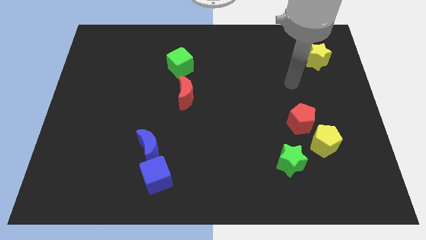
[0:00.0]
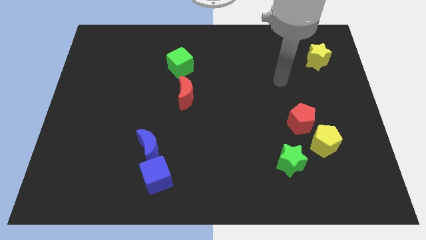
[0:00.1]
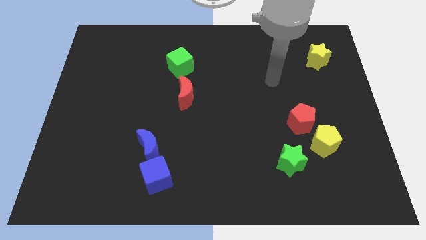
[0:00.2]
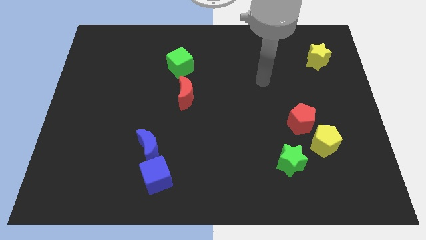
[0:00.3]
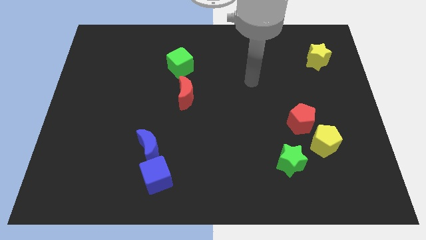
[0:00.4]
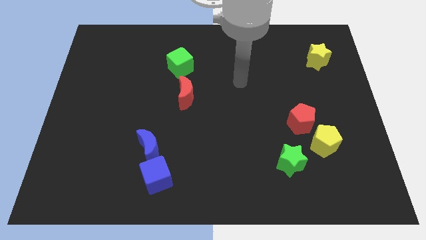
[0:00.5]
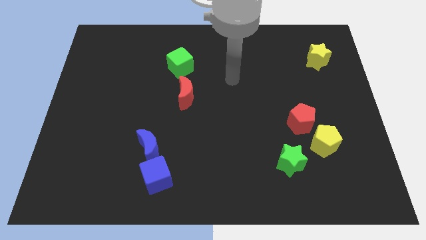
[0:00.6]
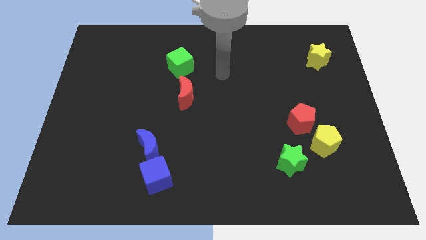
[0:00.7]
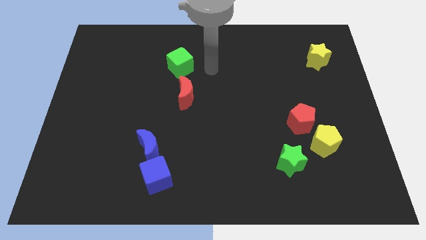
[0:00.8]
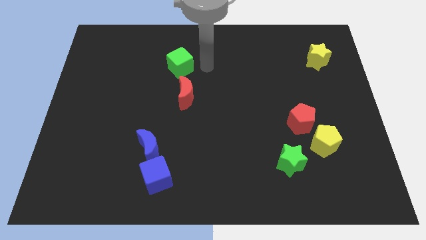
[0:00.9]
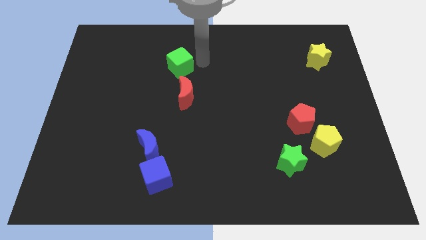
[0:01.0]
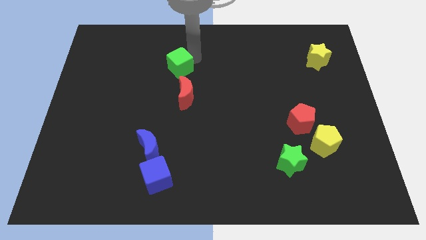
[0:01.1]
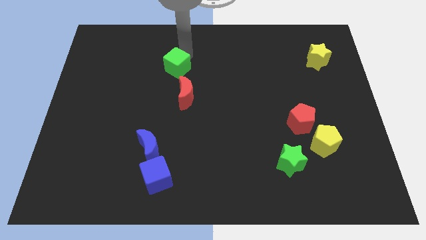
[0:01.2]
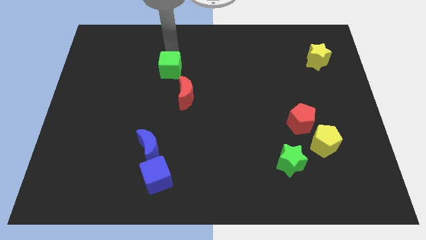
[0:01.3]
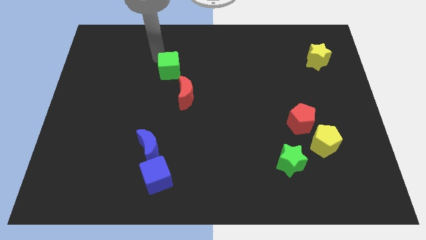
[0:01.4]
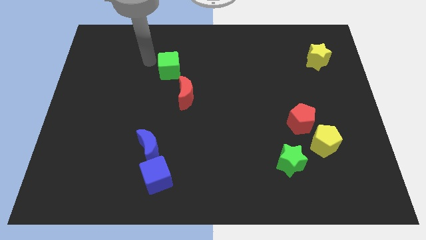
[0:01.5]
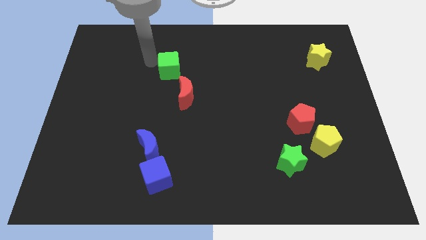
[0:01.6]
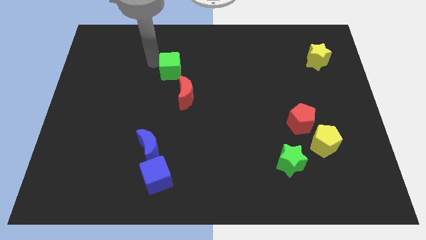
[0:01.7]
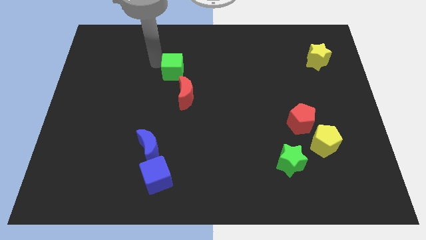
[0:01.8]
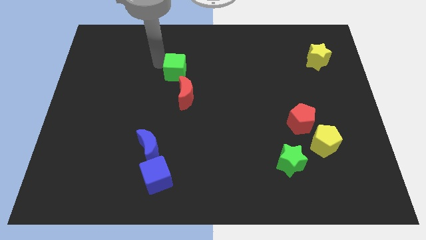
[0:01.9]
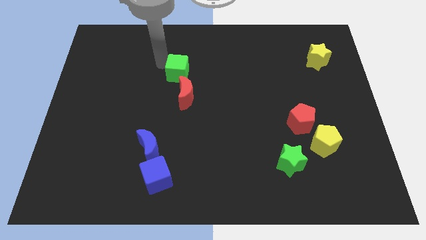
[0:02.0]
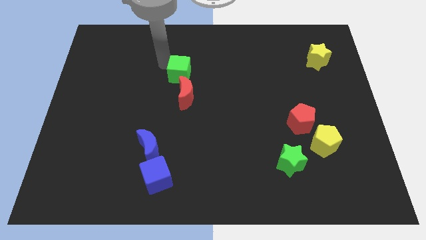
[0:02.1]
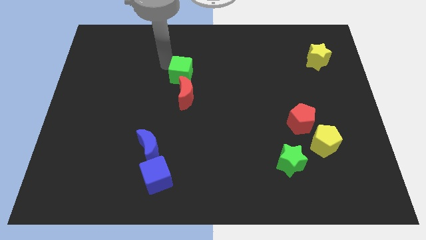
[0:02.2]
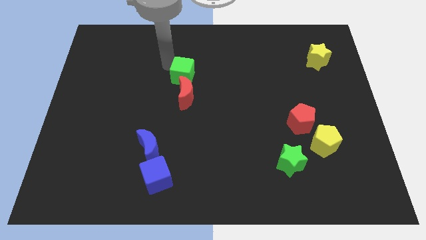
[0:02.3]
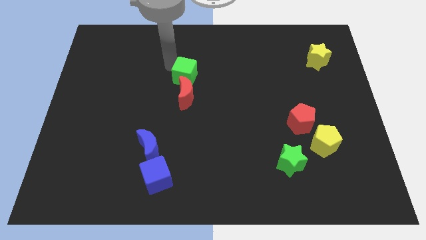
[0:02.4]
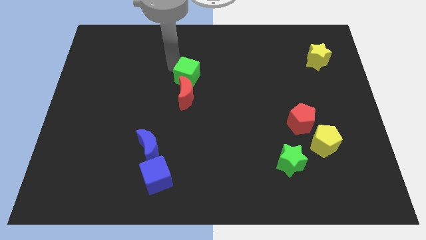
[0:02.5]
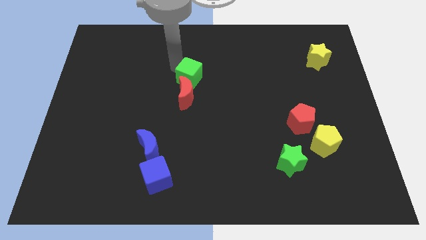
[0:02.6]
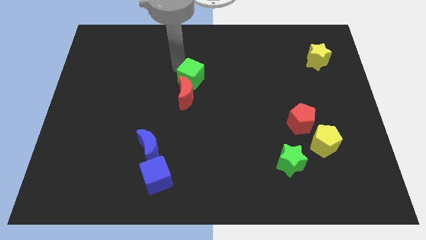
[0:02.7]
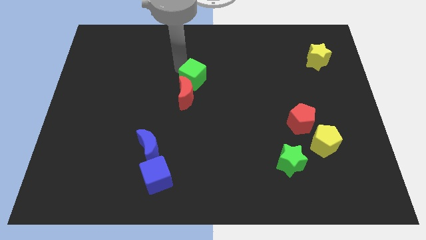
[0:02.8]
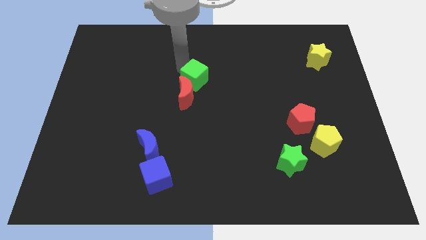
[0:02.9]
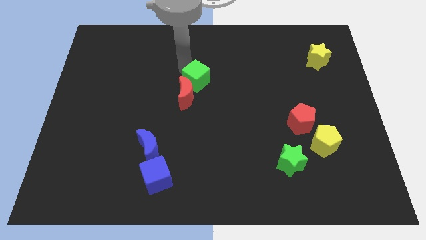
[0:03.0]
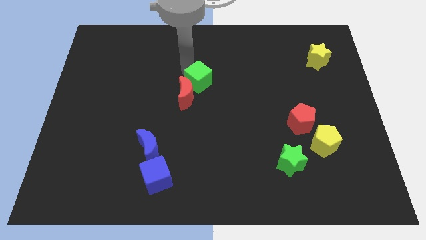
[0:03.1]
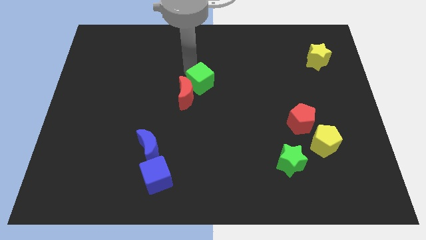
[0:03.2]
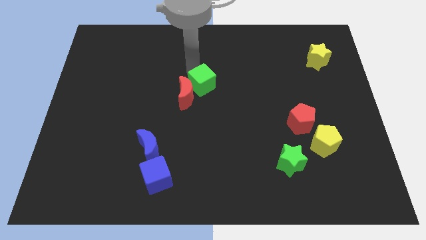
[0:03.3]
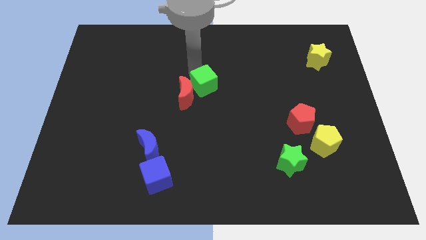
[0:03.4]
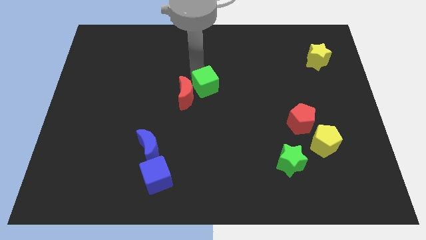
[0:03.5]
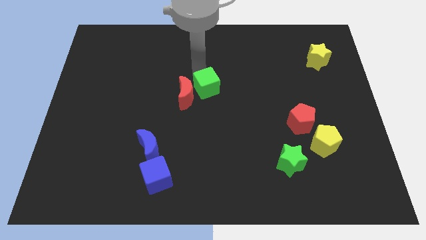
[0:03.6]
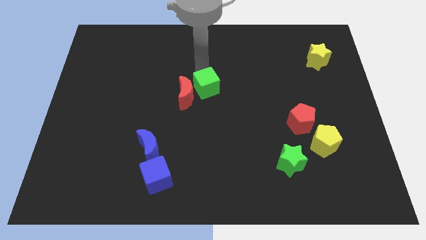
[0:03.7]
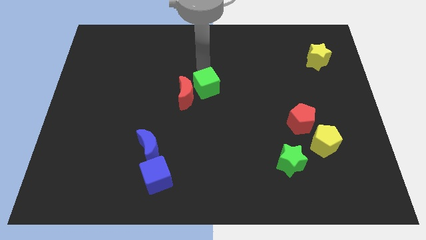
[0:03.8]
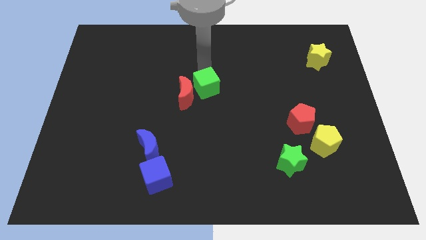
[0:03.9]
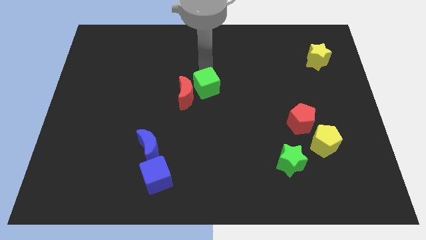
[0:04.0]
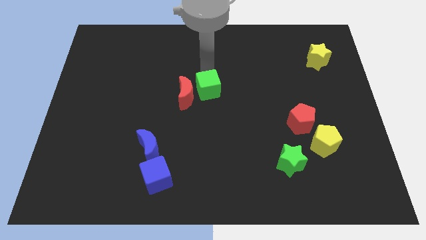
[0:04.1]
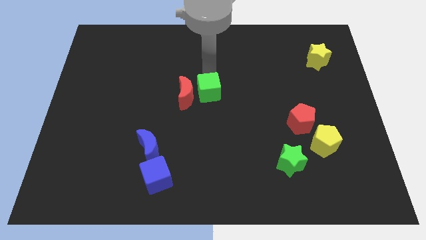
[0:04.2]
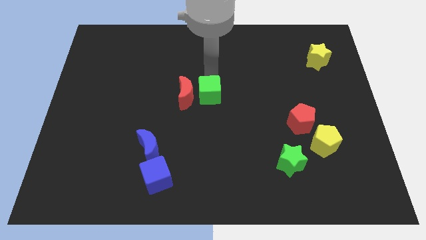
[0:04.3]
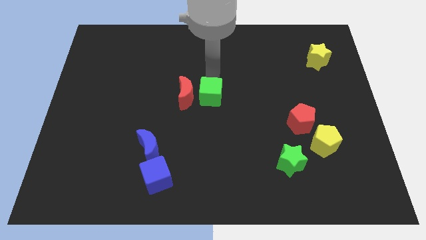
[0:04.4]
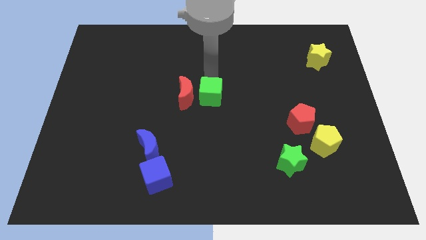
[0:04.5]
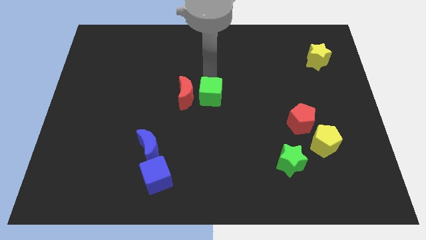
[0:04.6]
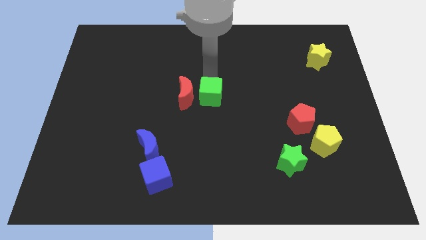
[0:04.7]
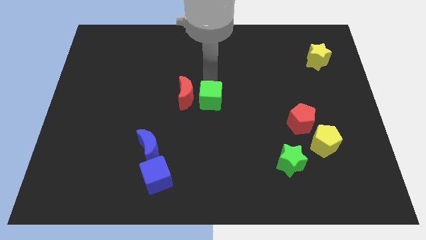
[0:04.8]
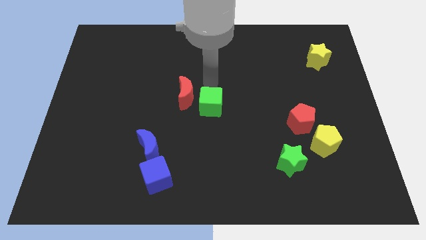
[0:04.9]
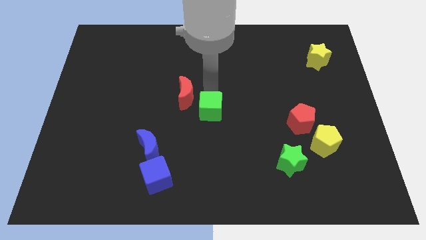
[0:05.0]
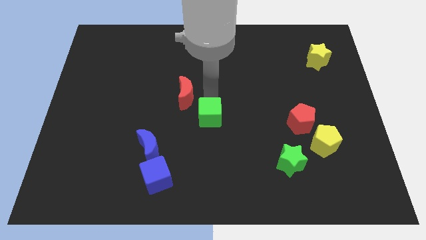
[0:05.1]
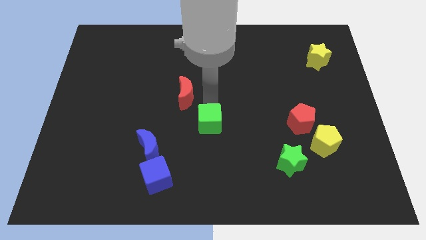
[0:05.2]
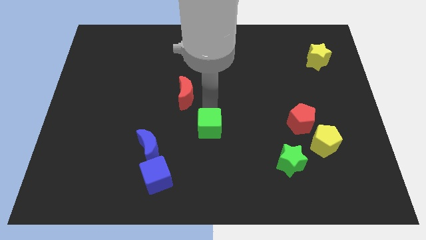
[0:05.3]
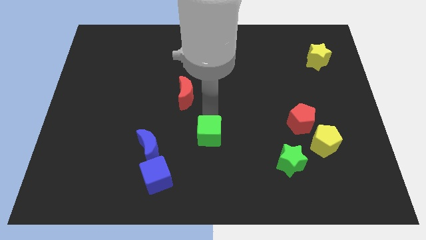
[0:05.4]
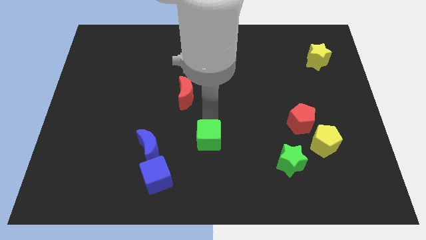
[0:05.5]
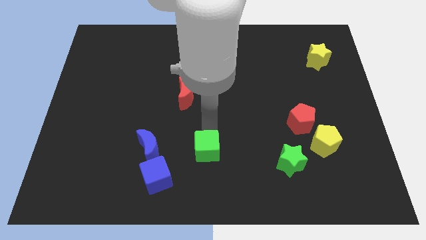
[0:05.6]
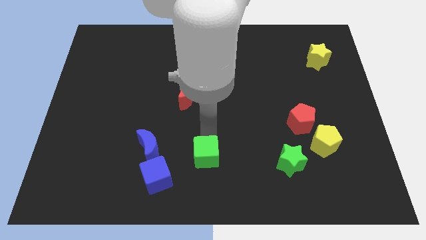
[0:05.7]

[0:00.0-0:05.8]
push the green cube to the bottom
